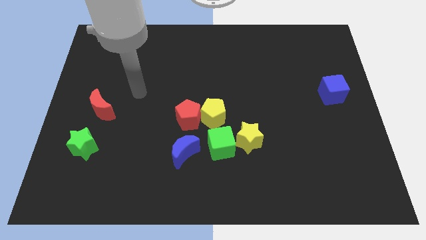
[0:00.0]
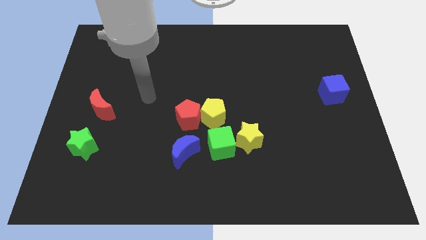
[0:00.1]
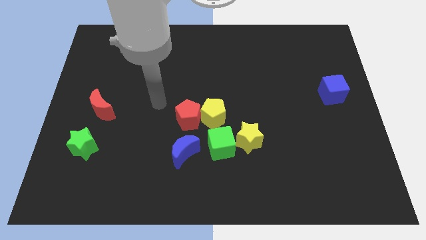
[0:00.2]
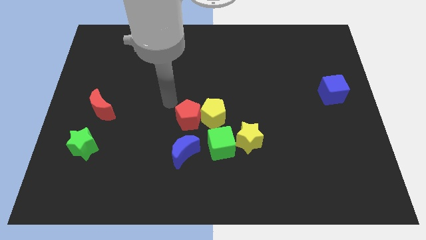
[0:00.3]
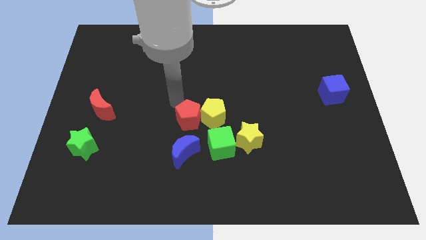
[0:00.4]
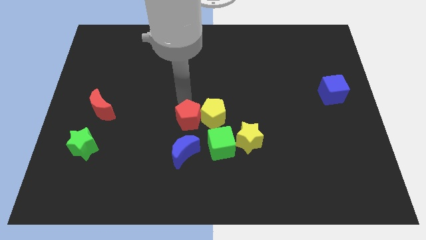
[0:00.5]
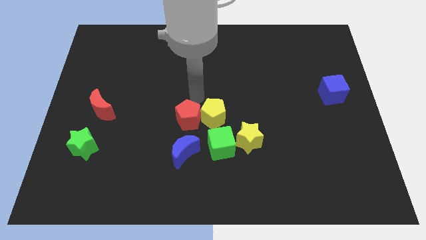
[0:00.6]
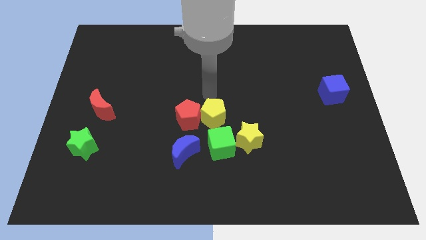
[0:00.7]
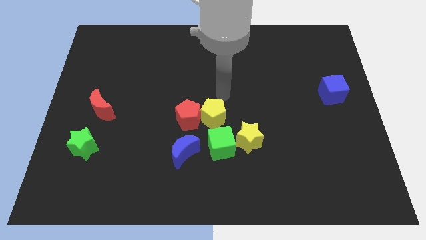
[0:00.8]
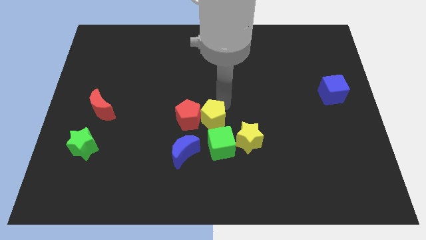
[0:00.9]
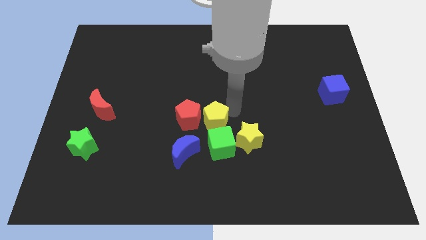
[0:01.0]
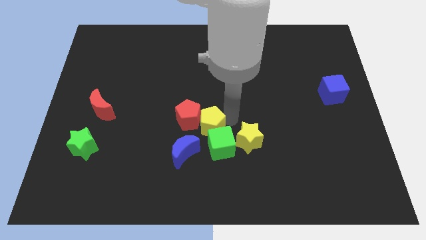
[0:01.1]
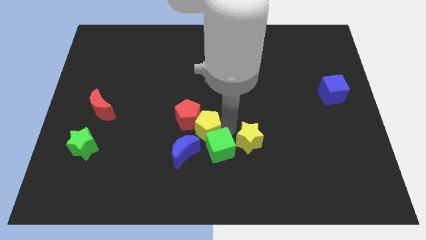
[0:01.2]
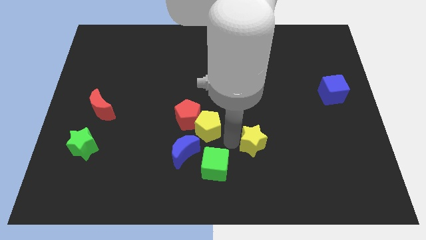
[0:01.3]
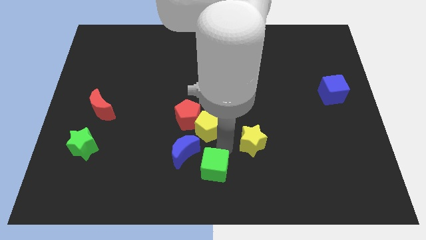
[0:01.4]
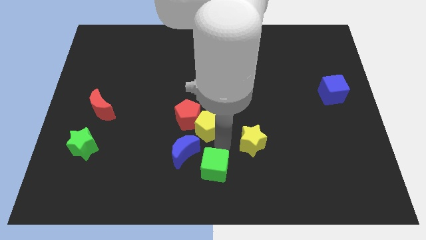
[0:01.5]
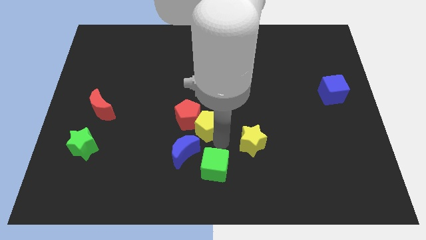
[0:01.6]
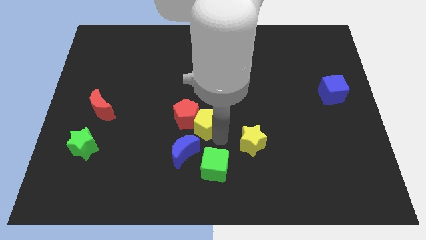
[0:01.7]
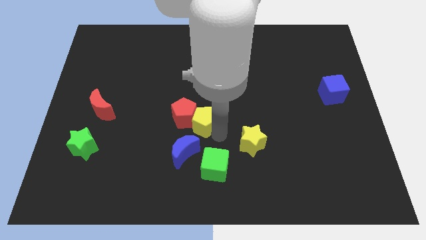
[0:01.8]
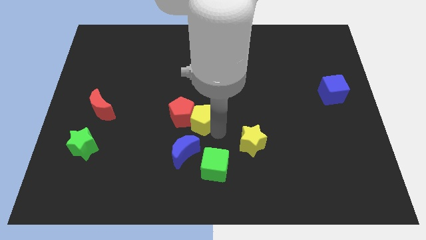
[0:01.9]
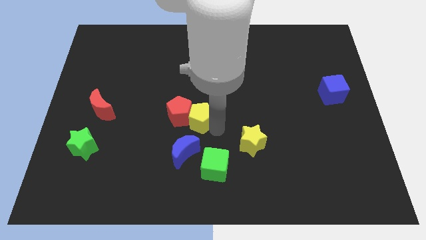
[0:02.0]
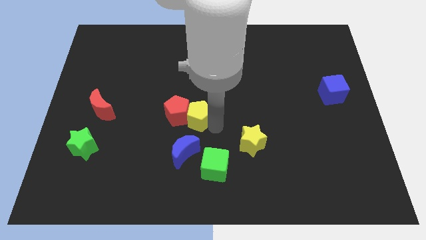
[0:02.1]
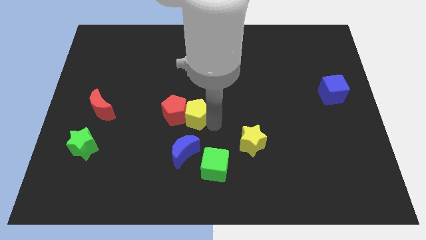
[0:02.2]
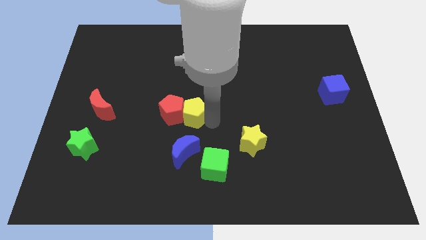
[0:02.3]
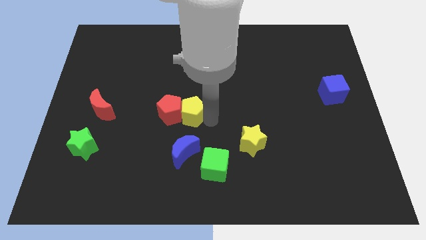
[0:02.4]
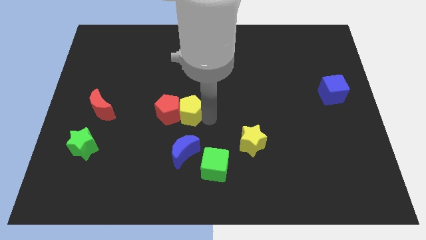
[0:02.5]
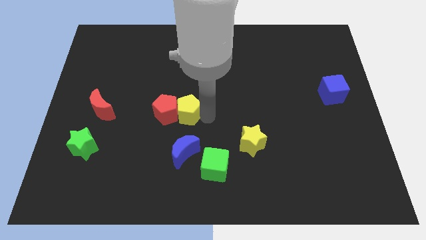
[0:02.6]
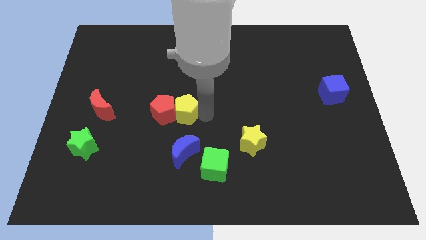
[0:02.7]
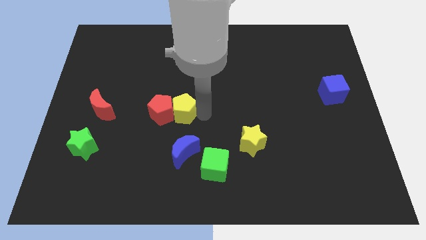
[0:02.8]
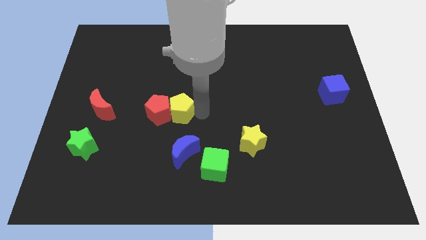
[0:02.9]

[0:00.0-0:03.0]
pull the yellow pentagon apart from the red pentagon, green cube, and yellow star

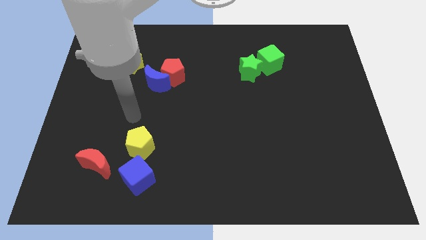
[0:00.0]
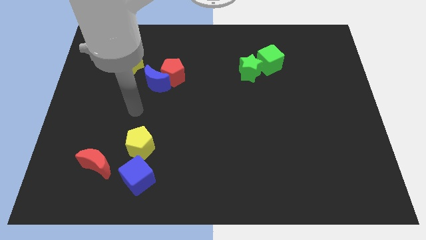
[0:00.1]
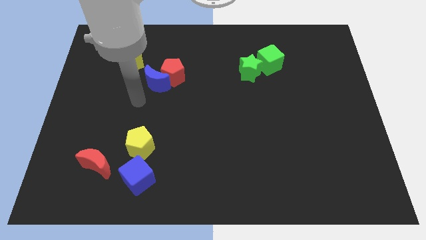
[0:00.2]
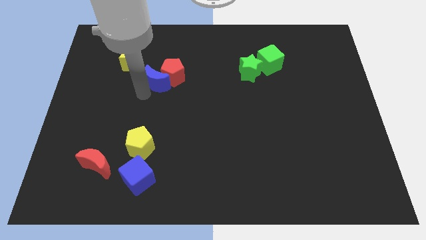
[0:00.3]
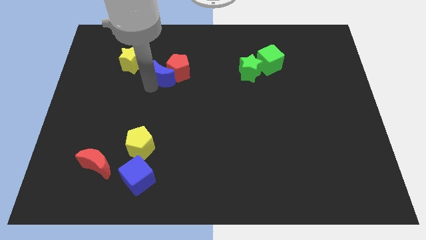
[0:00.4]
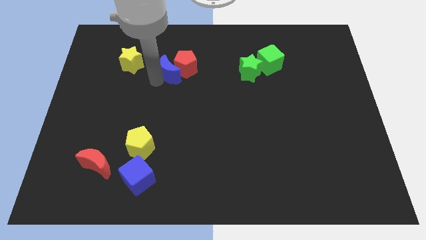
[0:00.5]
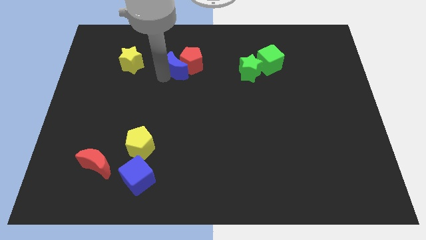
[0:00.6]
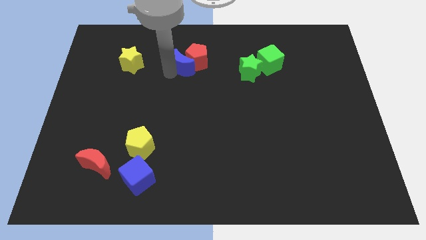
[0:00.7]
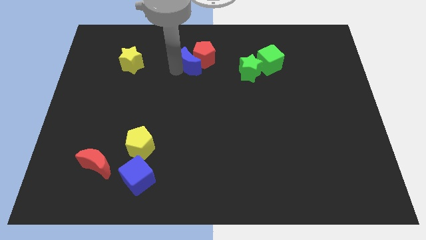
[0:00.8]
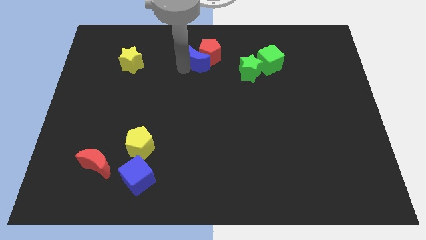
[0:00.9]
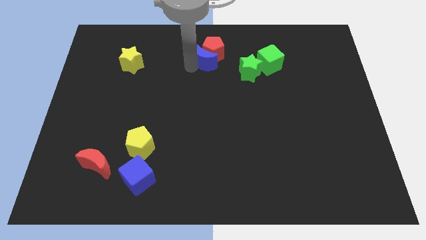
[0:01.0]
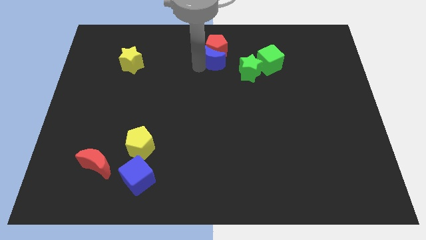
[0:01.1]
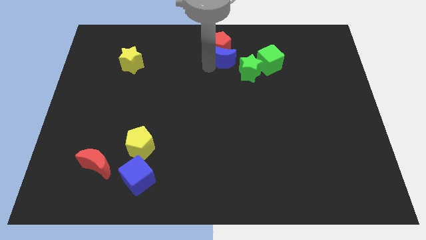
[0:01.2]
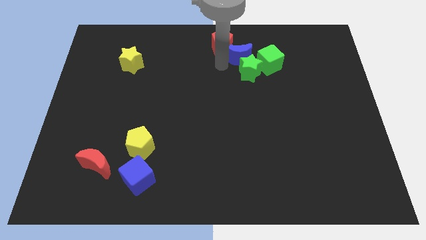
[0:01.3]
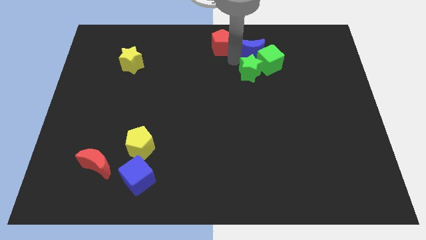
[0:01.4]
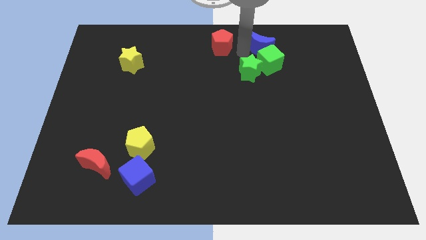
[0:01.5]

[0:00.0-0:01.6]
move the red pentagon away from the blue moon

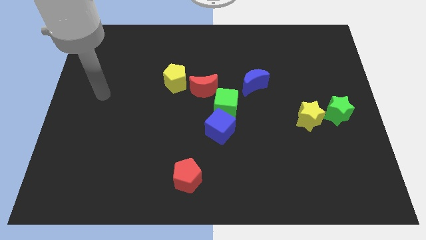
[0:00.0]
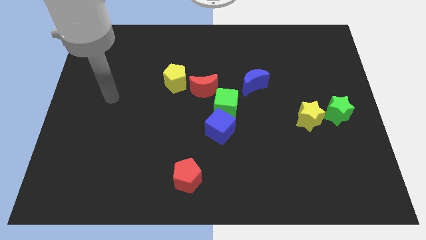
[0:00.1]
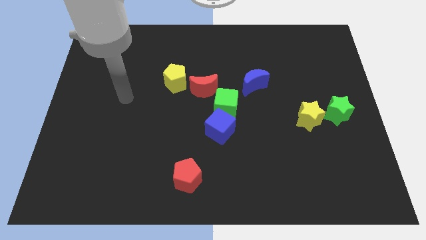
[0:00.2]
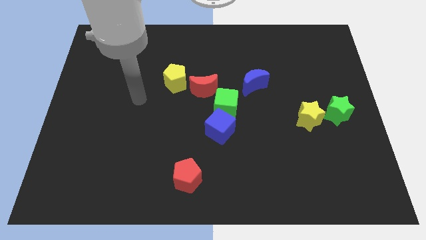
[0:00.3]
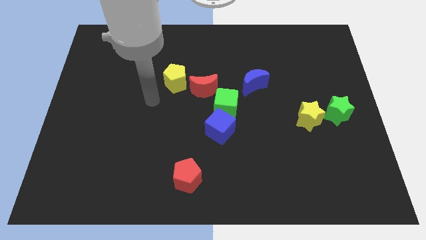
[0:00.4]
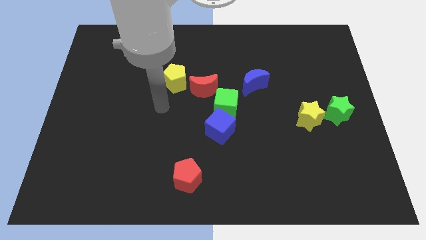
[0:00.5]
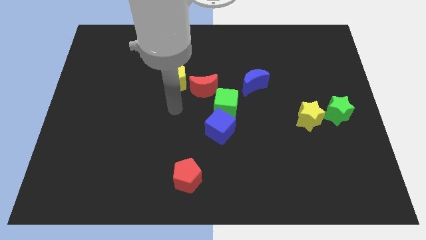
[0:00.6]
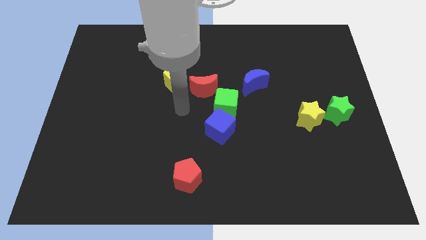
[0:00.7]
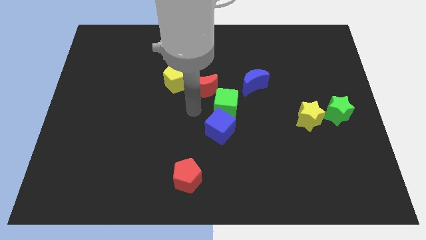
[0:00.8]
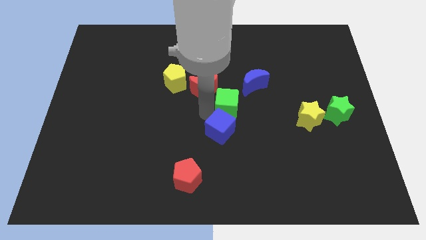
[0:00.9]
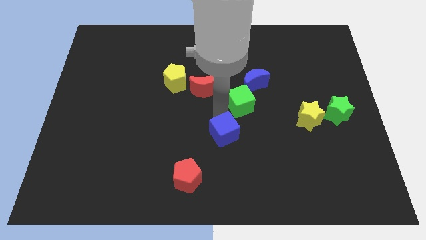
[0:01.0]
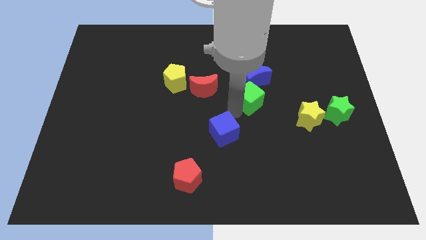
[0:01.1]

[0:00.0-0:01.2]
pull the blue cube apart from the green cube

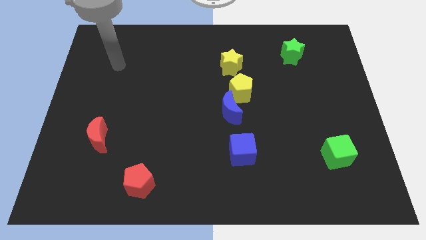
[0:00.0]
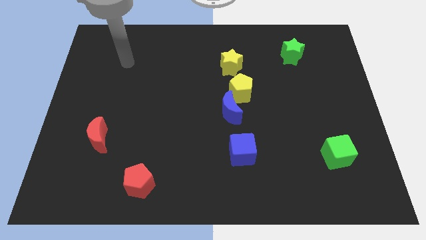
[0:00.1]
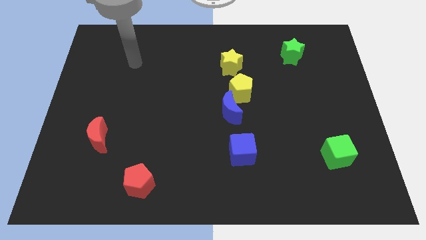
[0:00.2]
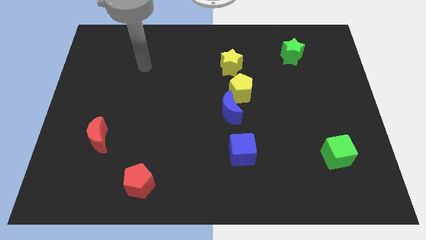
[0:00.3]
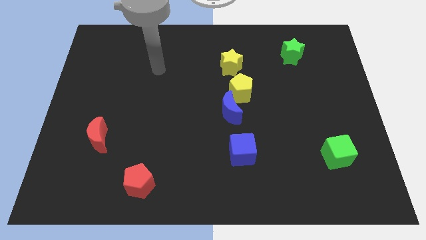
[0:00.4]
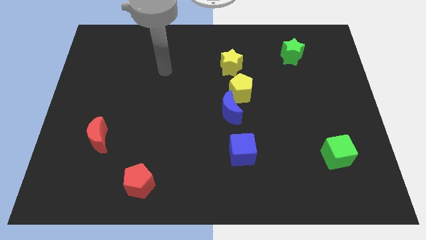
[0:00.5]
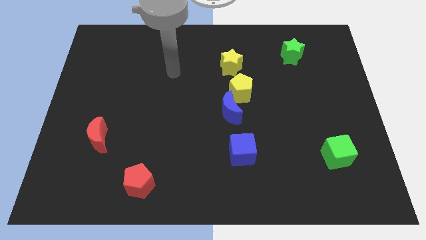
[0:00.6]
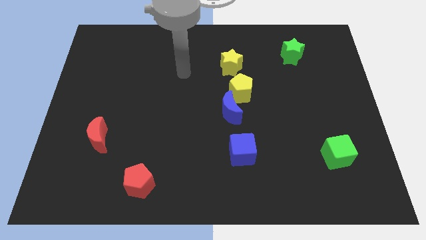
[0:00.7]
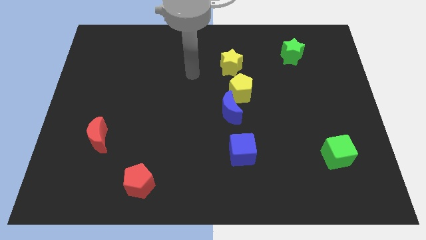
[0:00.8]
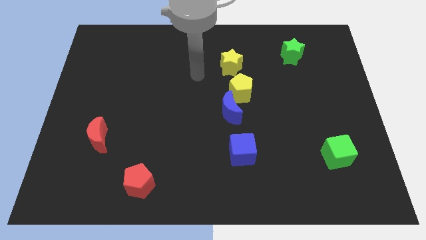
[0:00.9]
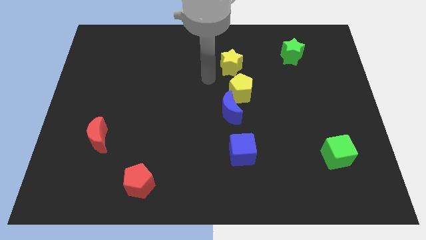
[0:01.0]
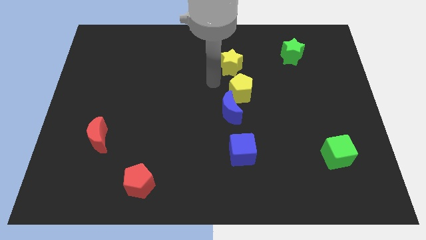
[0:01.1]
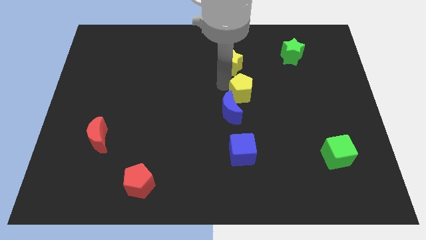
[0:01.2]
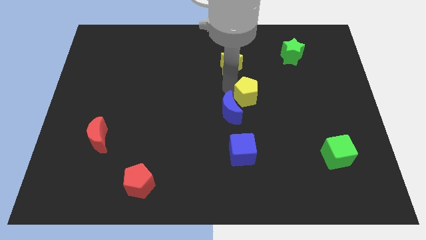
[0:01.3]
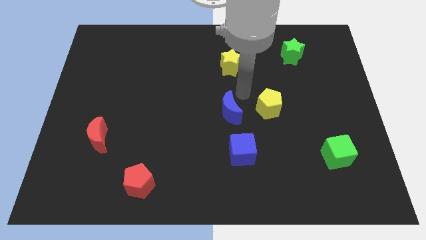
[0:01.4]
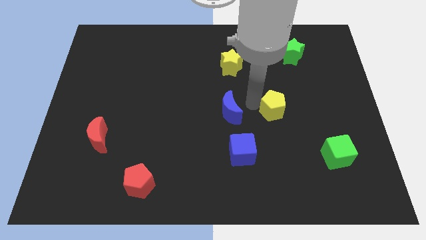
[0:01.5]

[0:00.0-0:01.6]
separate the blue moon from the yellow pentagon

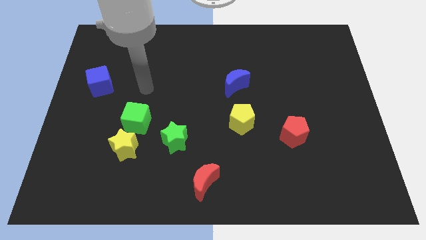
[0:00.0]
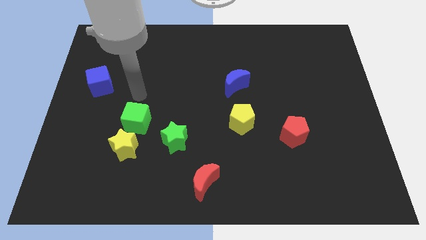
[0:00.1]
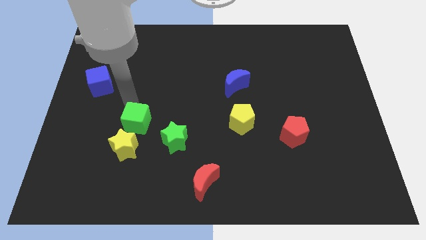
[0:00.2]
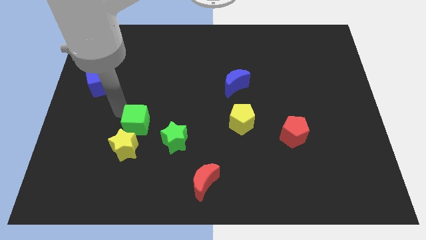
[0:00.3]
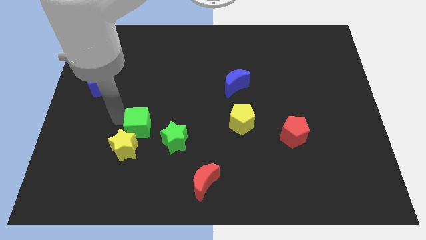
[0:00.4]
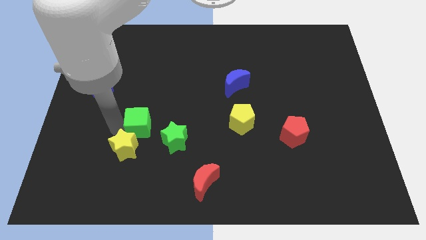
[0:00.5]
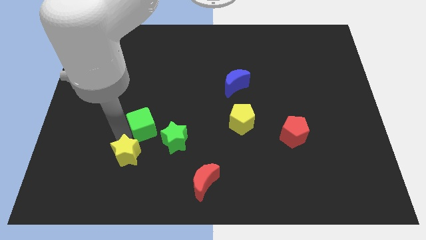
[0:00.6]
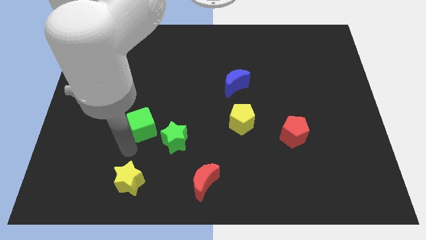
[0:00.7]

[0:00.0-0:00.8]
separate the green cube from the yellow star

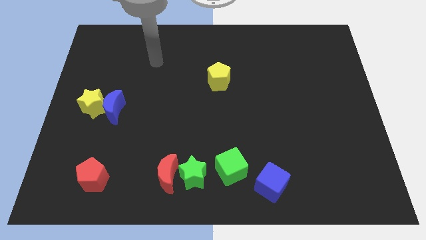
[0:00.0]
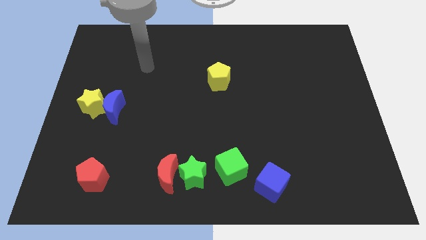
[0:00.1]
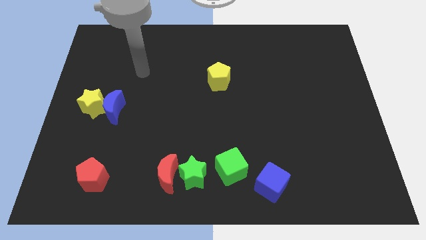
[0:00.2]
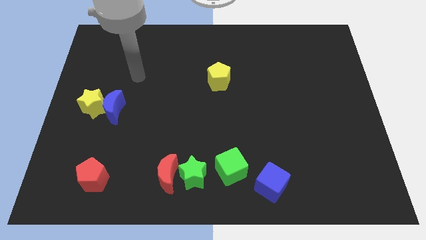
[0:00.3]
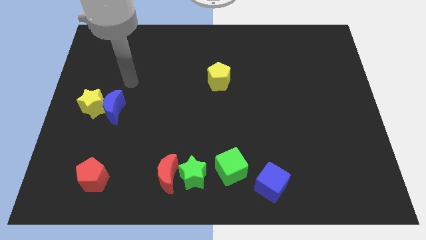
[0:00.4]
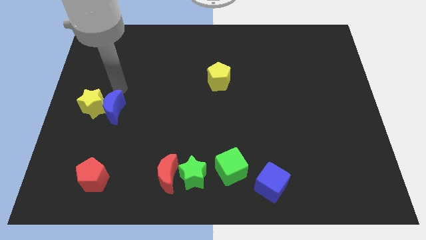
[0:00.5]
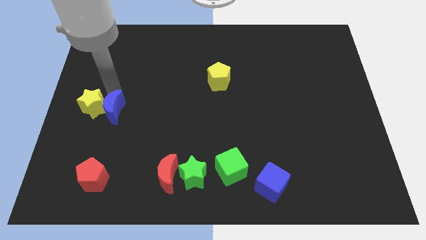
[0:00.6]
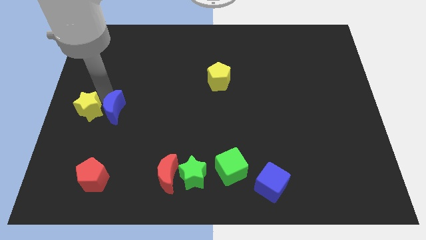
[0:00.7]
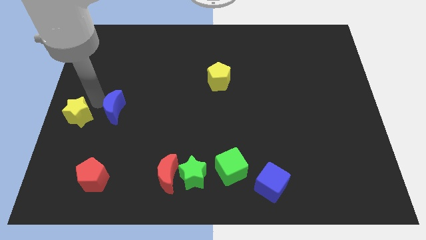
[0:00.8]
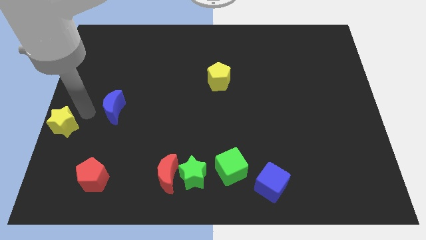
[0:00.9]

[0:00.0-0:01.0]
separate the blue moon from the yellow star
